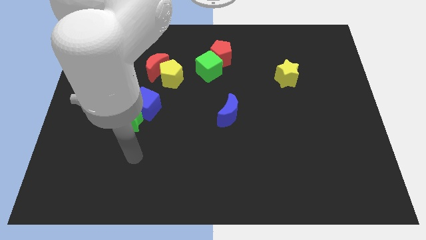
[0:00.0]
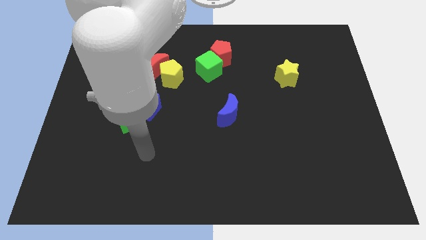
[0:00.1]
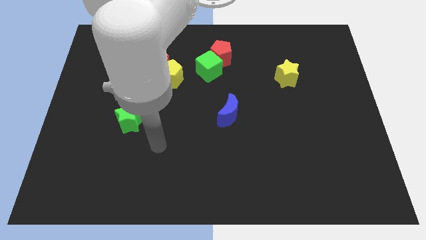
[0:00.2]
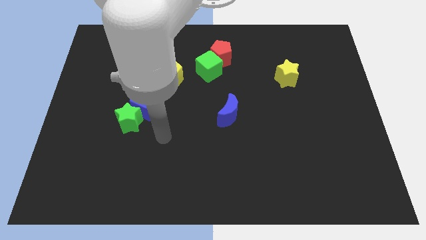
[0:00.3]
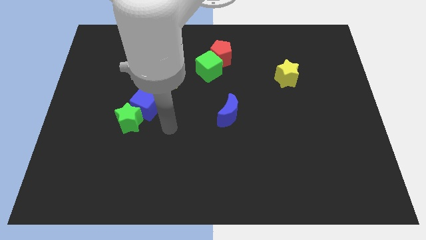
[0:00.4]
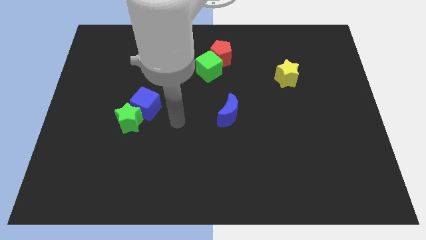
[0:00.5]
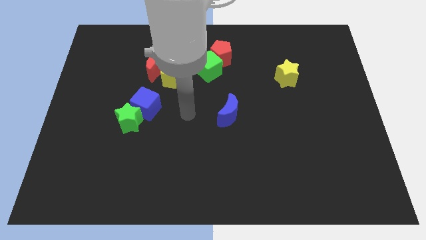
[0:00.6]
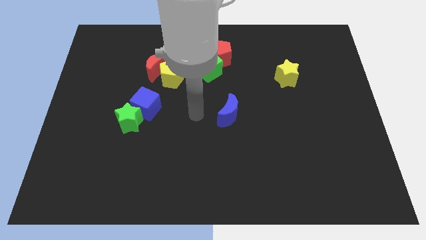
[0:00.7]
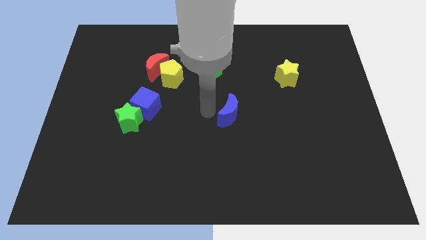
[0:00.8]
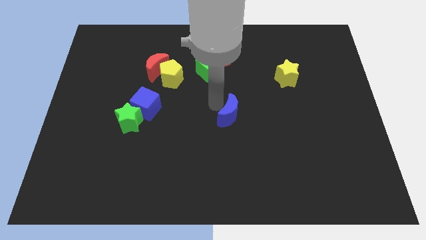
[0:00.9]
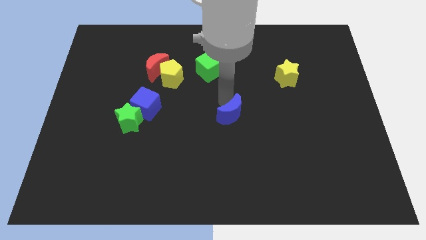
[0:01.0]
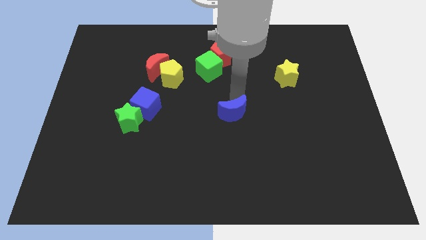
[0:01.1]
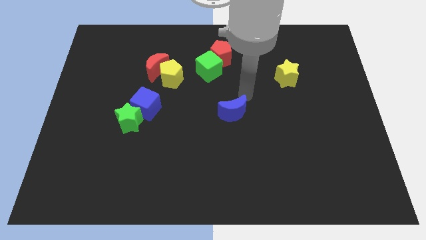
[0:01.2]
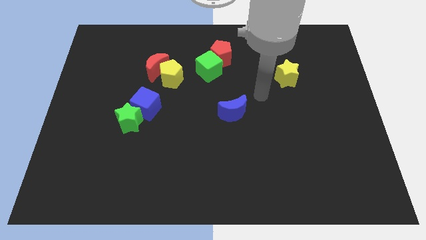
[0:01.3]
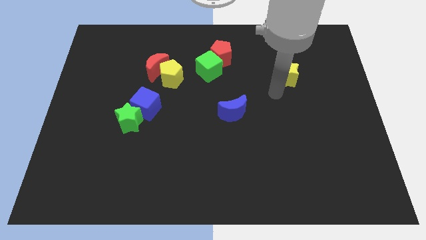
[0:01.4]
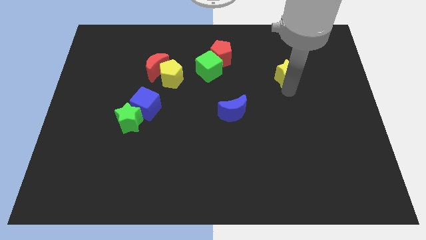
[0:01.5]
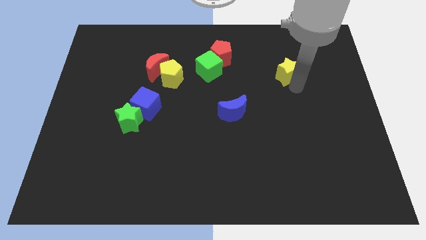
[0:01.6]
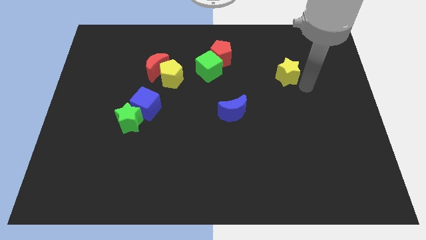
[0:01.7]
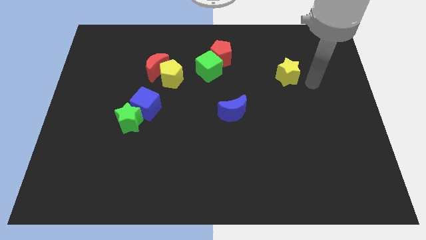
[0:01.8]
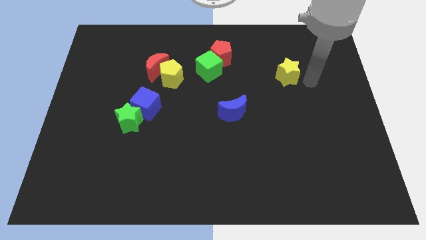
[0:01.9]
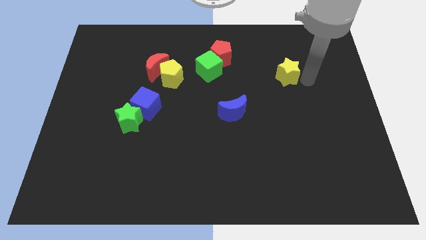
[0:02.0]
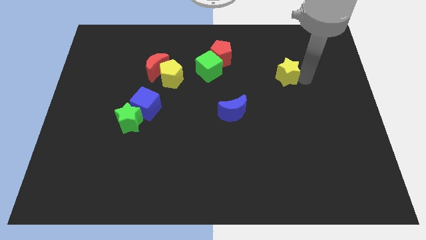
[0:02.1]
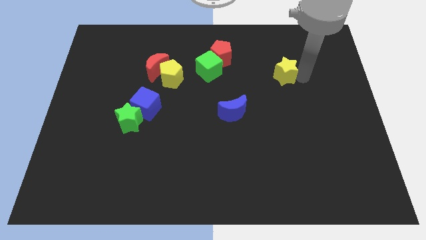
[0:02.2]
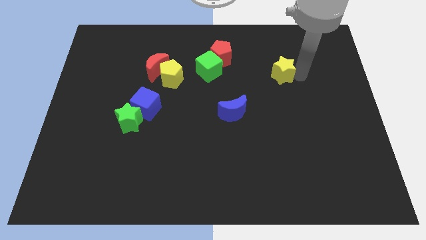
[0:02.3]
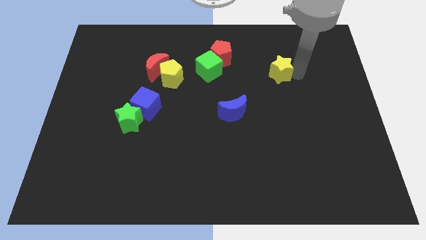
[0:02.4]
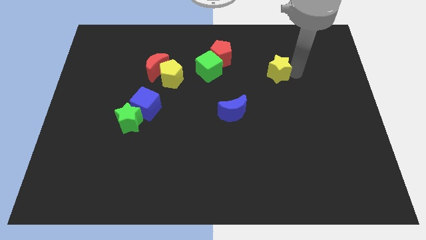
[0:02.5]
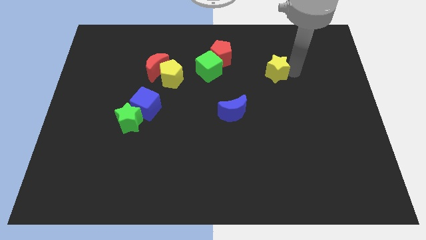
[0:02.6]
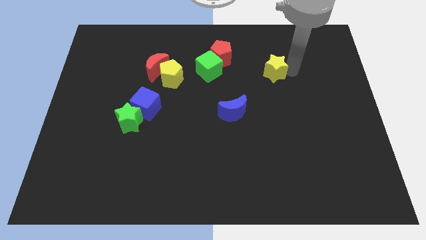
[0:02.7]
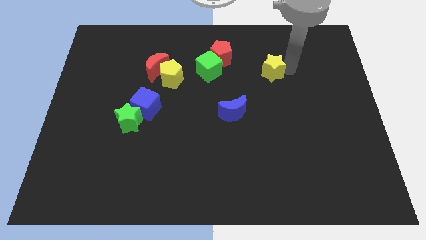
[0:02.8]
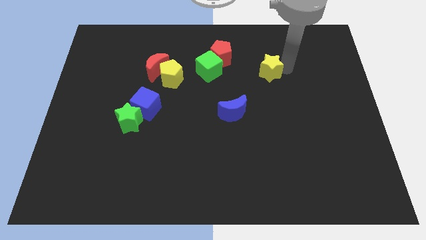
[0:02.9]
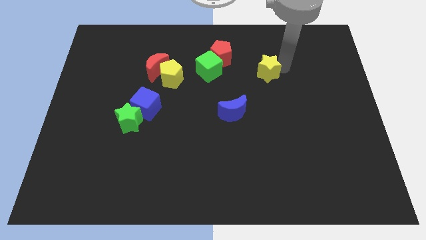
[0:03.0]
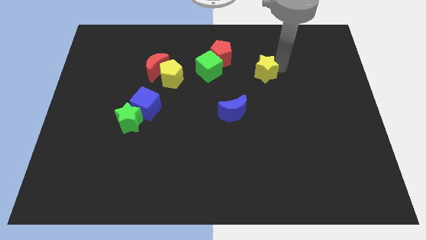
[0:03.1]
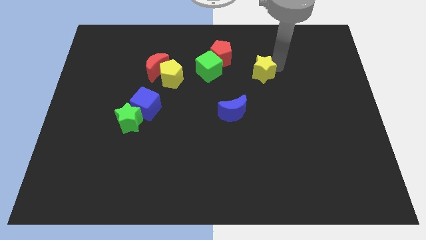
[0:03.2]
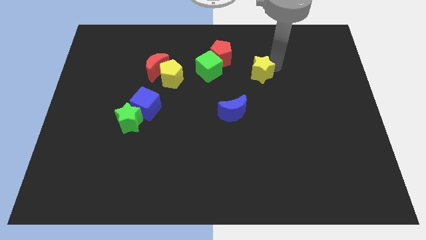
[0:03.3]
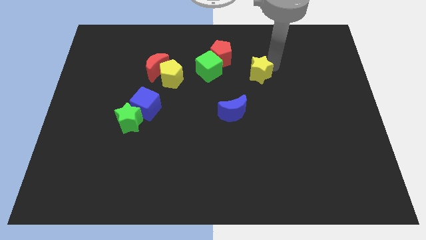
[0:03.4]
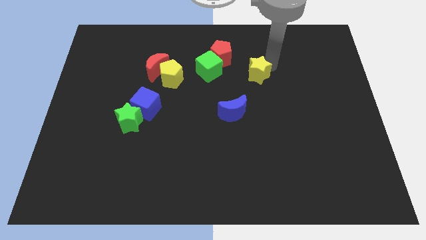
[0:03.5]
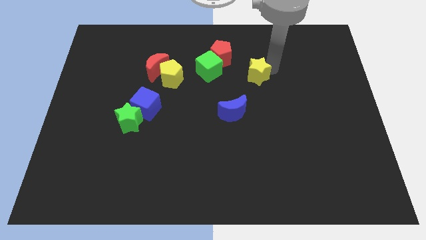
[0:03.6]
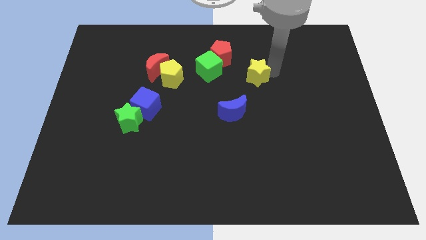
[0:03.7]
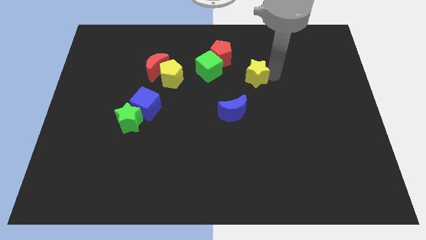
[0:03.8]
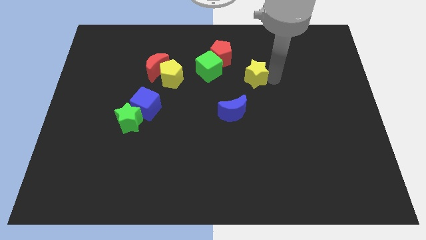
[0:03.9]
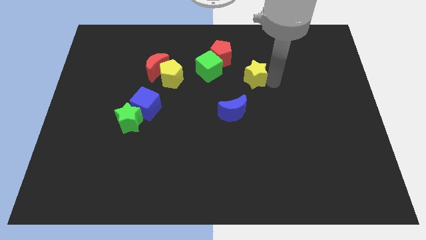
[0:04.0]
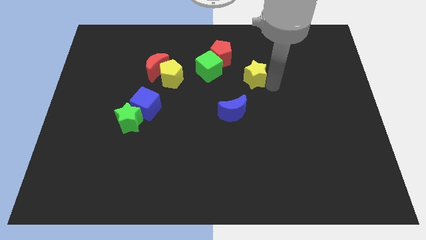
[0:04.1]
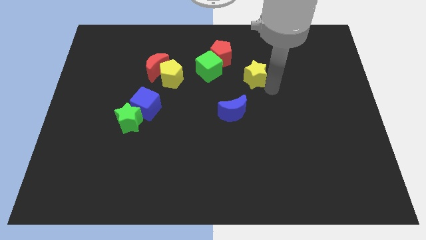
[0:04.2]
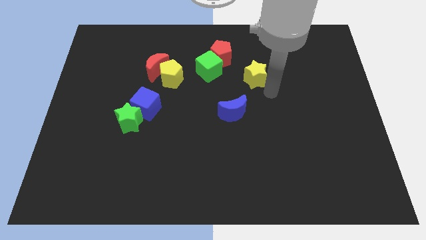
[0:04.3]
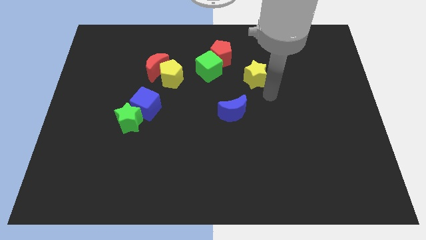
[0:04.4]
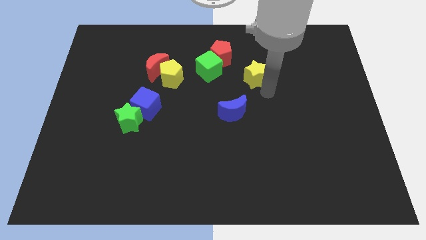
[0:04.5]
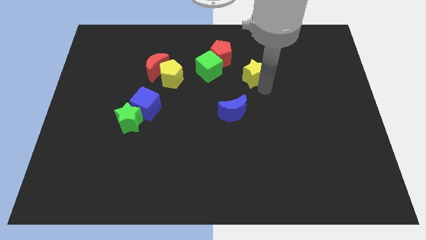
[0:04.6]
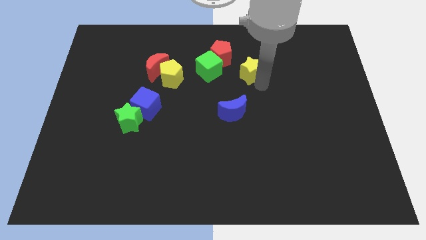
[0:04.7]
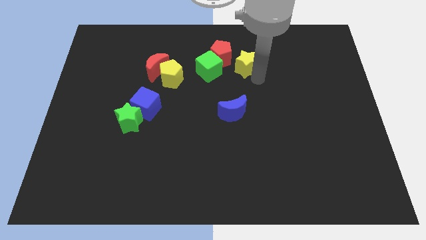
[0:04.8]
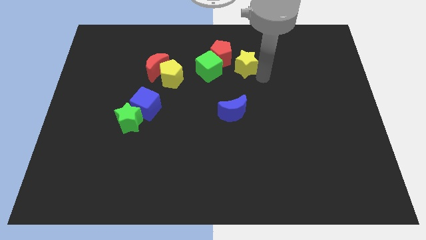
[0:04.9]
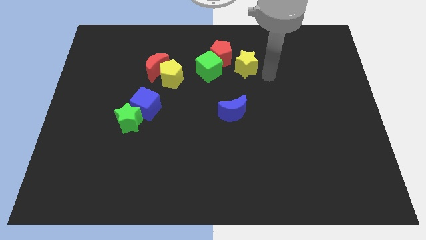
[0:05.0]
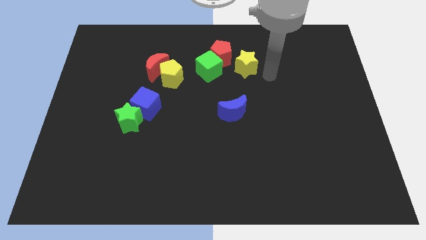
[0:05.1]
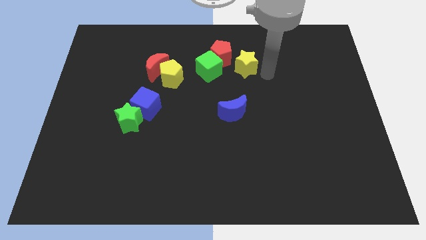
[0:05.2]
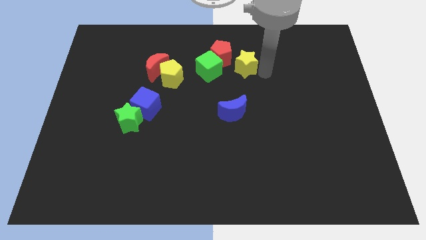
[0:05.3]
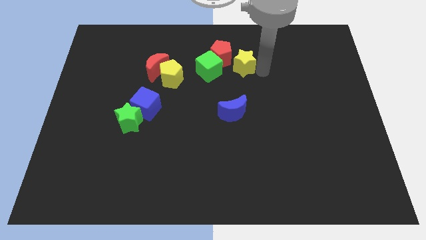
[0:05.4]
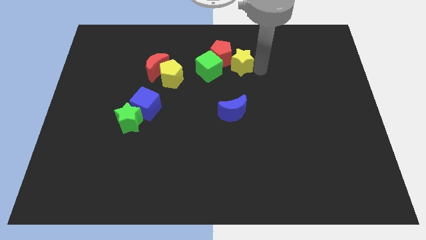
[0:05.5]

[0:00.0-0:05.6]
slide the yellow star to the red pentagon

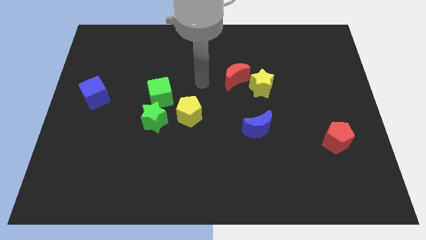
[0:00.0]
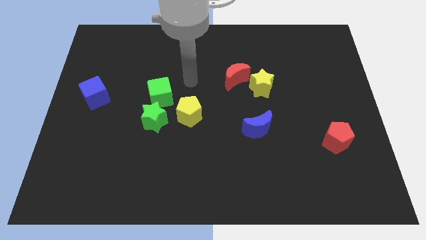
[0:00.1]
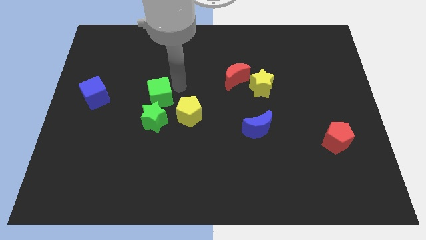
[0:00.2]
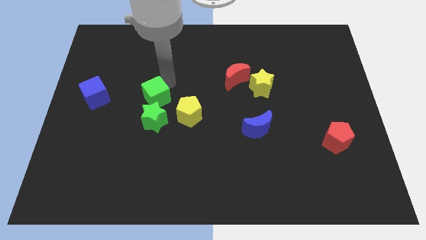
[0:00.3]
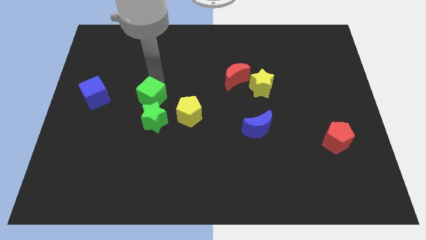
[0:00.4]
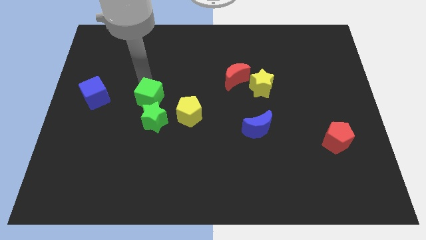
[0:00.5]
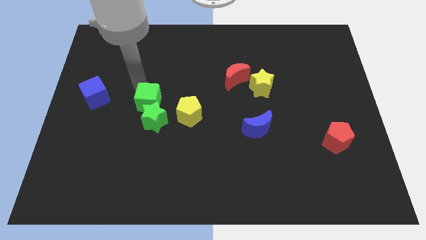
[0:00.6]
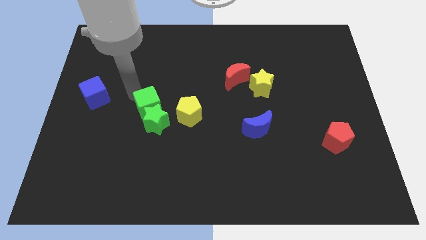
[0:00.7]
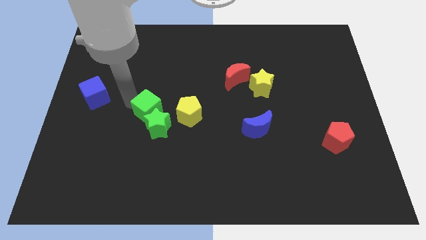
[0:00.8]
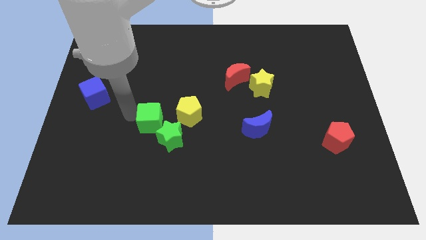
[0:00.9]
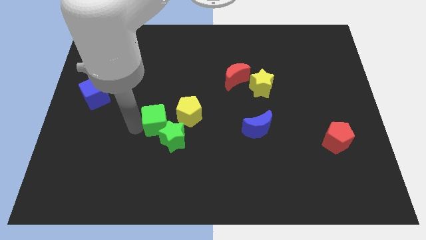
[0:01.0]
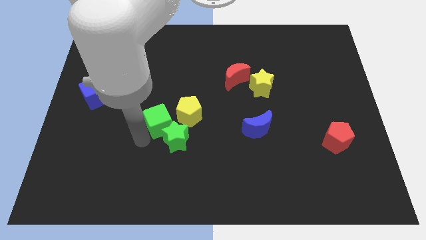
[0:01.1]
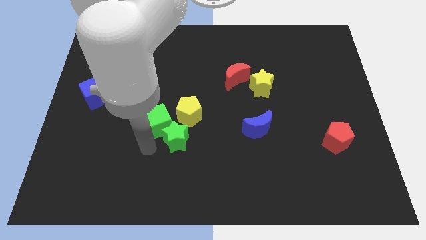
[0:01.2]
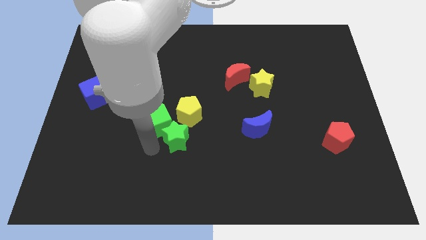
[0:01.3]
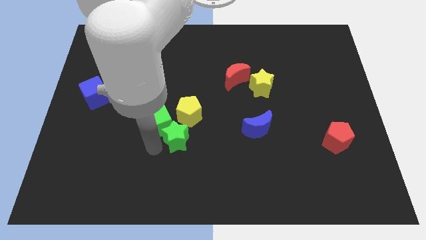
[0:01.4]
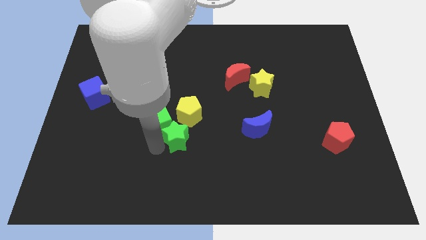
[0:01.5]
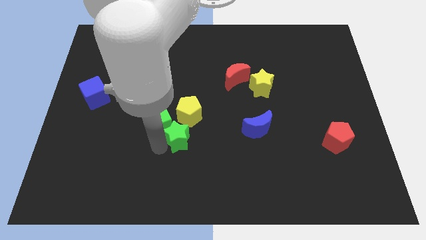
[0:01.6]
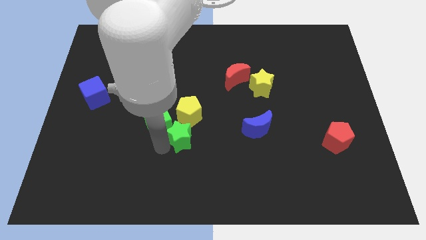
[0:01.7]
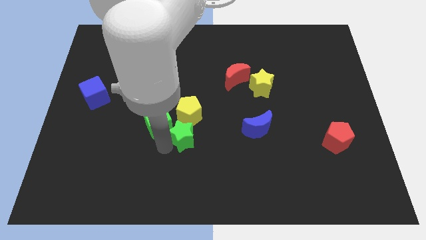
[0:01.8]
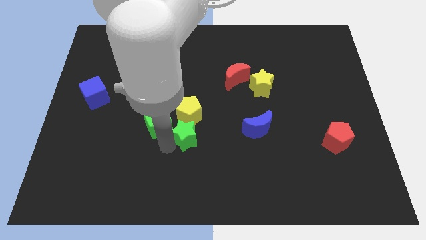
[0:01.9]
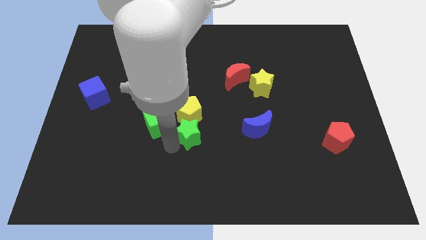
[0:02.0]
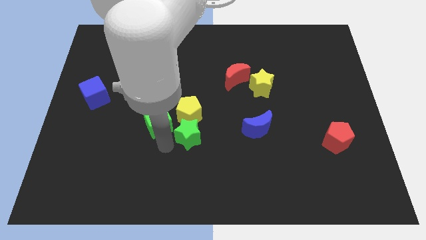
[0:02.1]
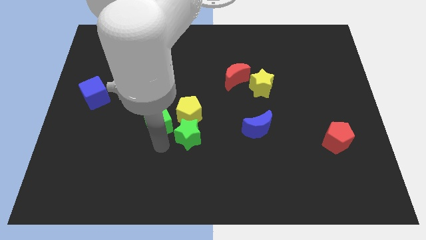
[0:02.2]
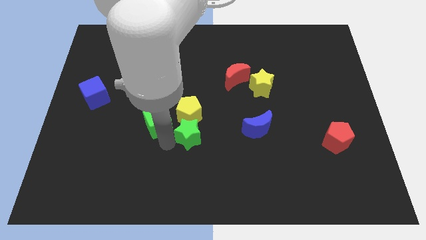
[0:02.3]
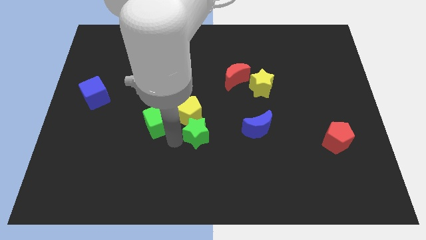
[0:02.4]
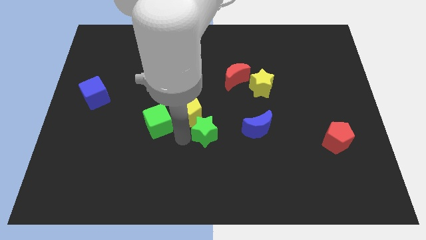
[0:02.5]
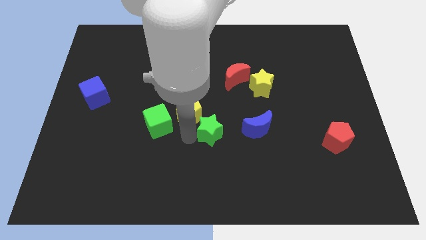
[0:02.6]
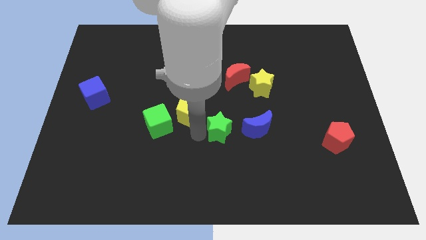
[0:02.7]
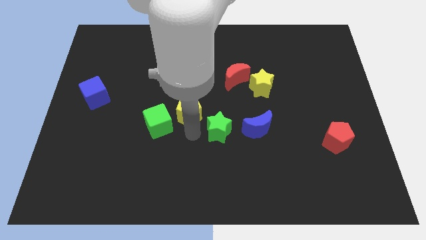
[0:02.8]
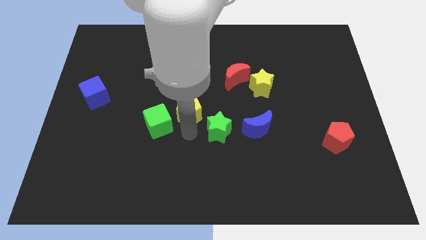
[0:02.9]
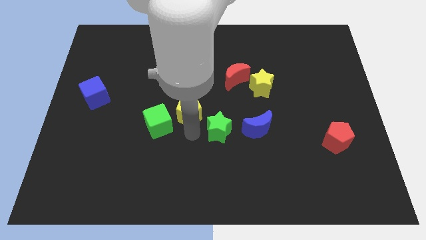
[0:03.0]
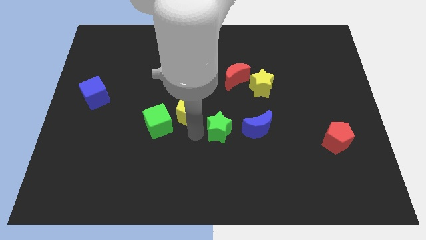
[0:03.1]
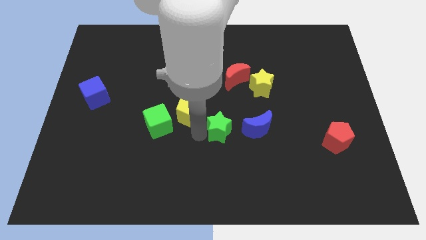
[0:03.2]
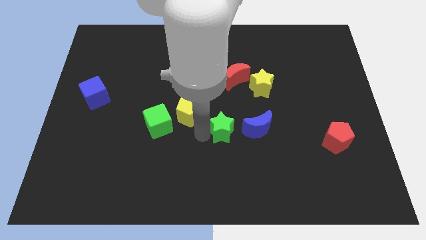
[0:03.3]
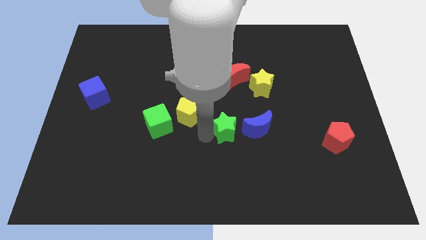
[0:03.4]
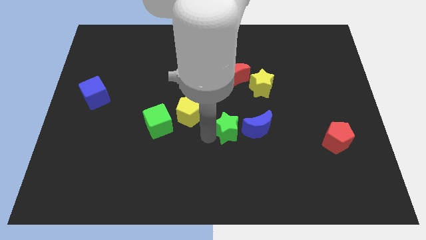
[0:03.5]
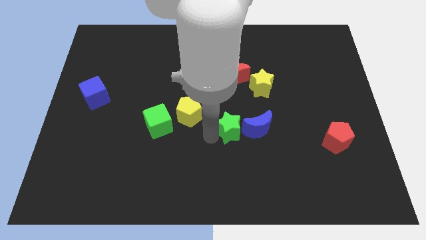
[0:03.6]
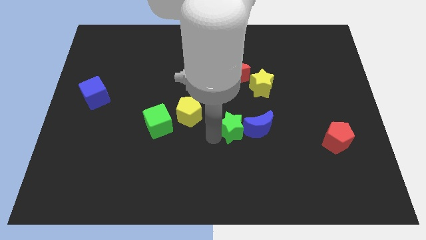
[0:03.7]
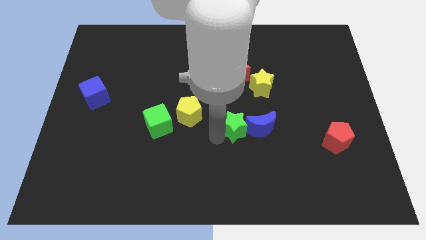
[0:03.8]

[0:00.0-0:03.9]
put the green star to the blue moon
